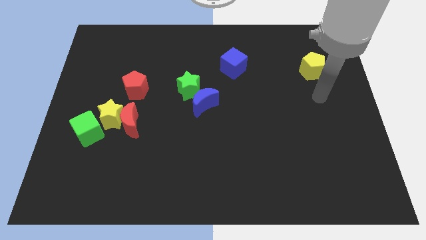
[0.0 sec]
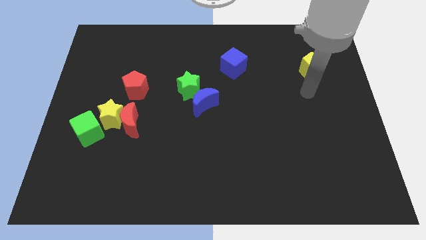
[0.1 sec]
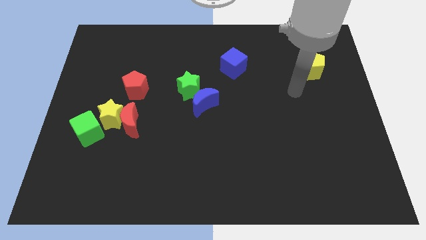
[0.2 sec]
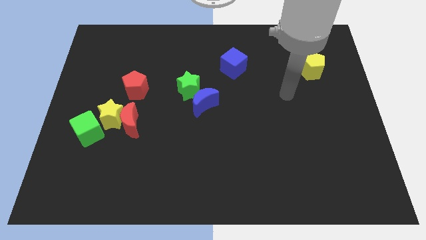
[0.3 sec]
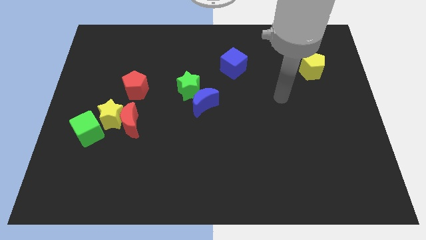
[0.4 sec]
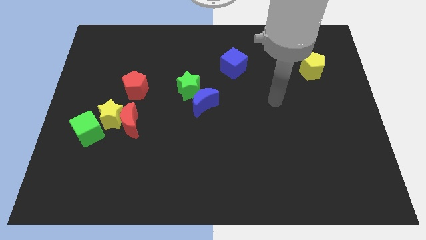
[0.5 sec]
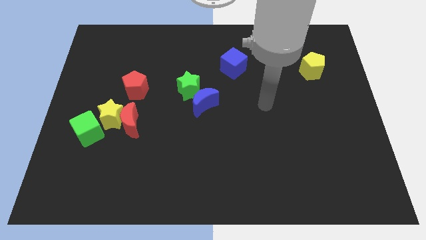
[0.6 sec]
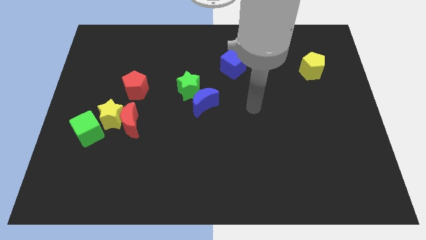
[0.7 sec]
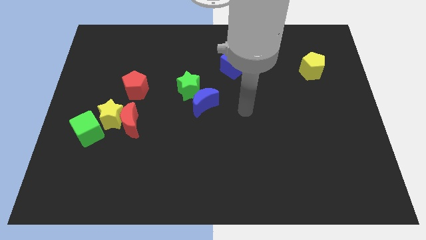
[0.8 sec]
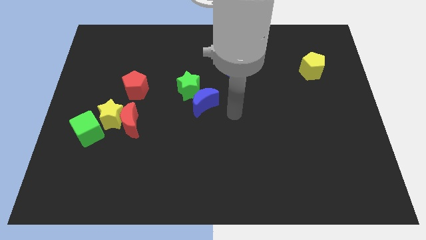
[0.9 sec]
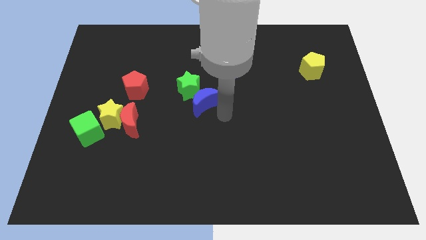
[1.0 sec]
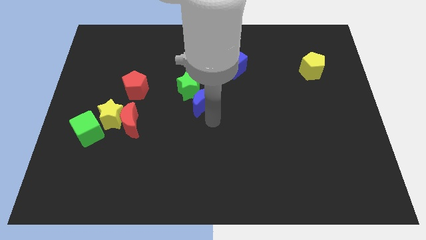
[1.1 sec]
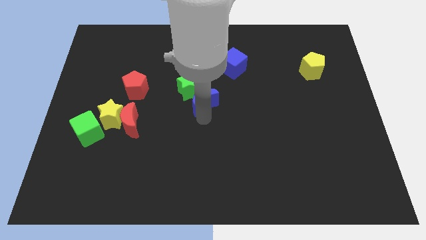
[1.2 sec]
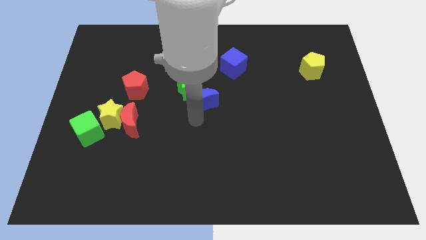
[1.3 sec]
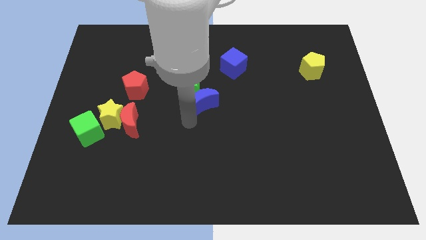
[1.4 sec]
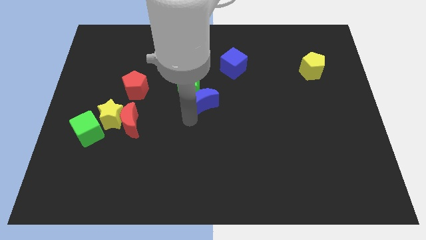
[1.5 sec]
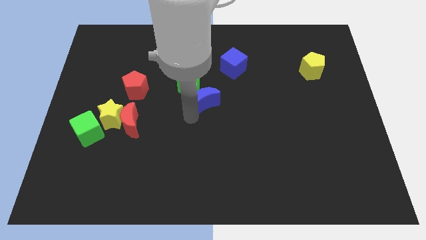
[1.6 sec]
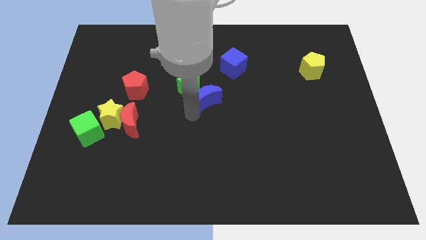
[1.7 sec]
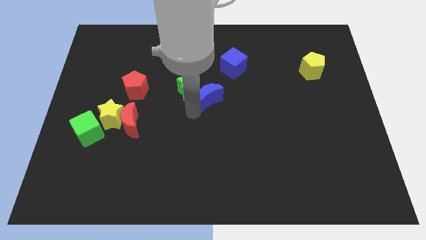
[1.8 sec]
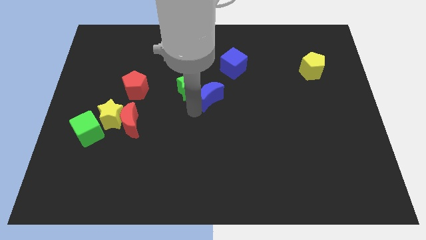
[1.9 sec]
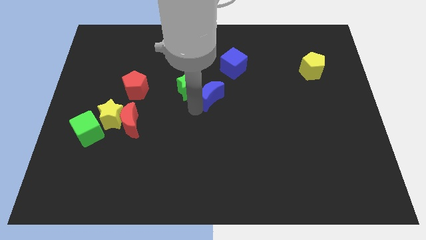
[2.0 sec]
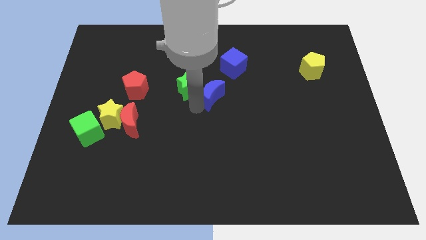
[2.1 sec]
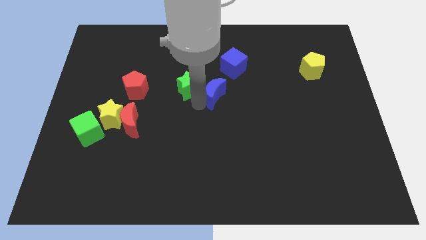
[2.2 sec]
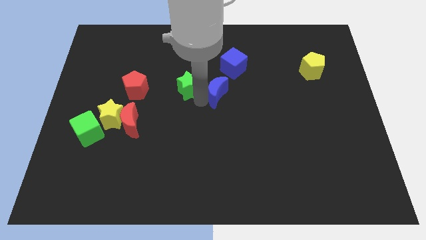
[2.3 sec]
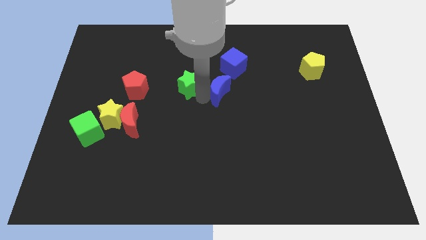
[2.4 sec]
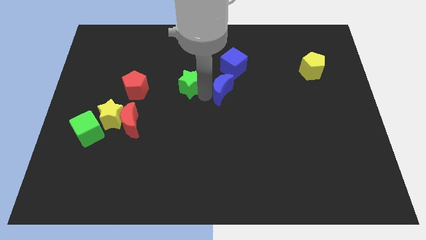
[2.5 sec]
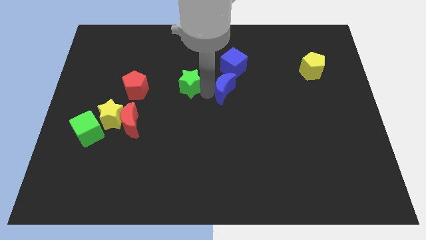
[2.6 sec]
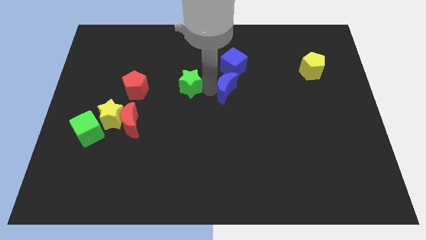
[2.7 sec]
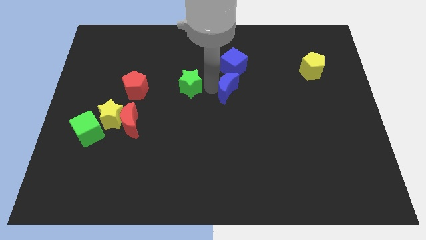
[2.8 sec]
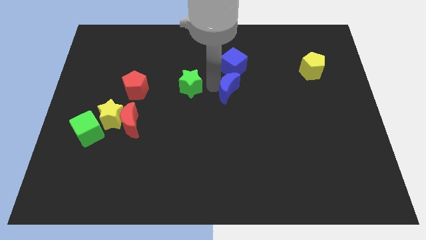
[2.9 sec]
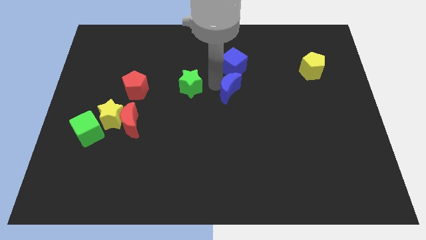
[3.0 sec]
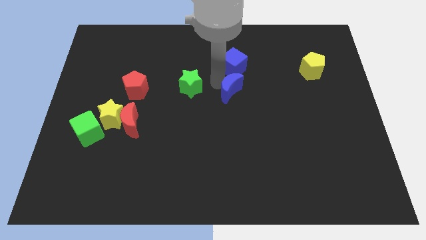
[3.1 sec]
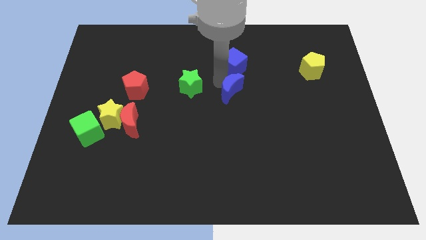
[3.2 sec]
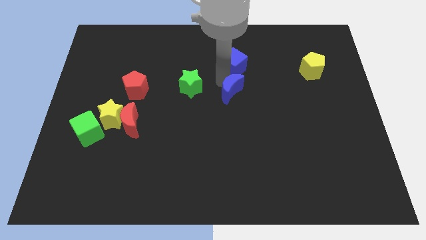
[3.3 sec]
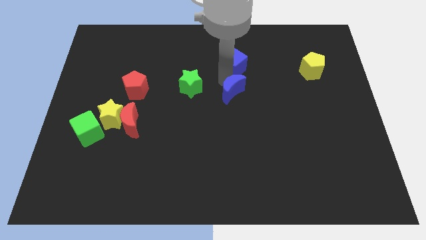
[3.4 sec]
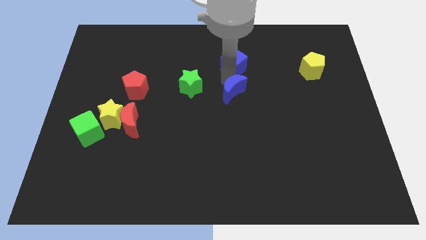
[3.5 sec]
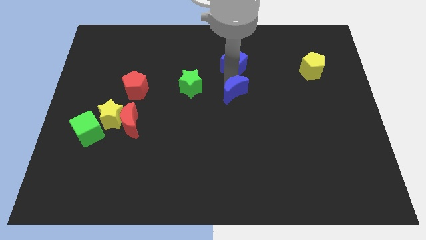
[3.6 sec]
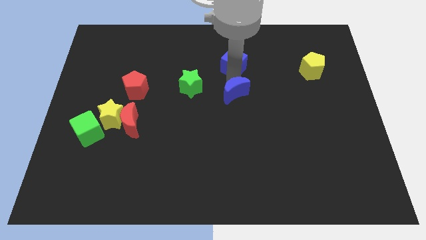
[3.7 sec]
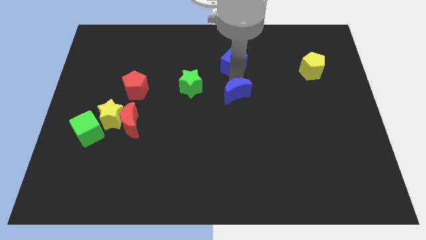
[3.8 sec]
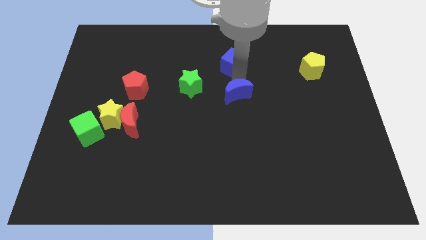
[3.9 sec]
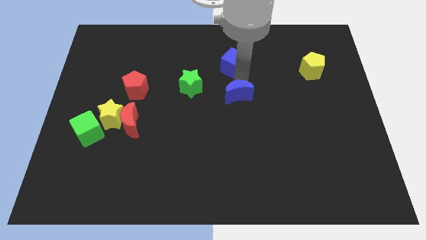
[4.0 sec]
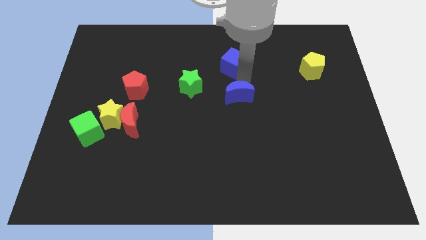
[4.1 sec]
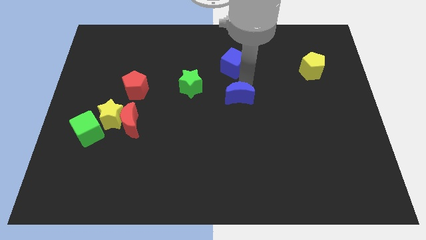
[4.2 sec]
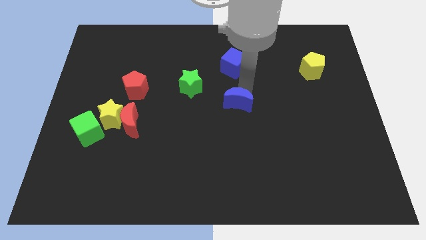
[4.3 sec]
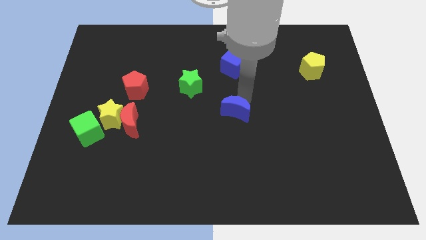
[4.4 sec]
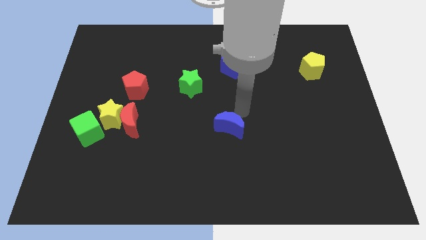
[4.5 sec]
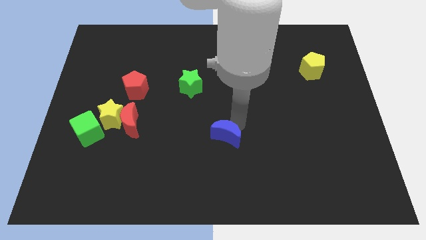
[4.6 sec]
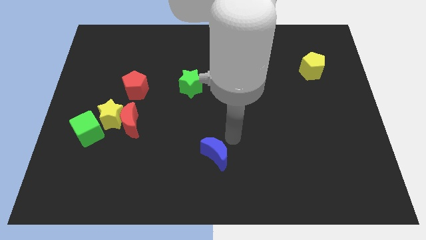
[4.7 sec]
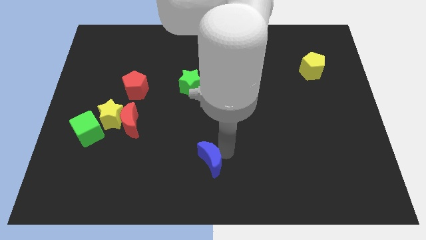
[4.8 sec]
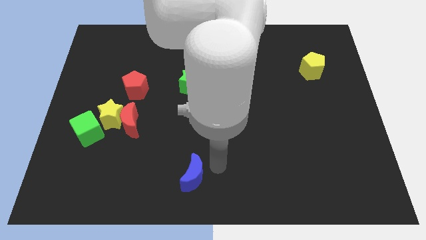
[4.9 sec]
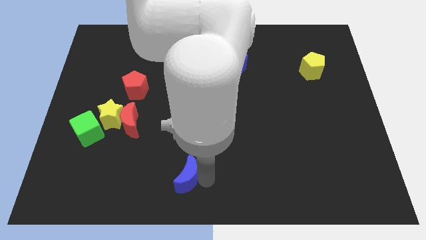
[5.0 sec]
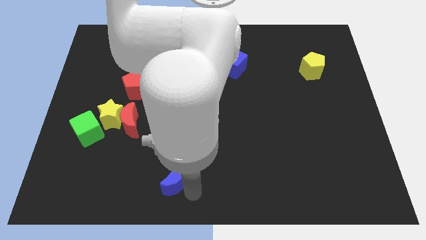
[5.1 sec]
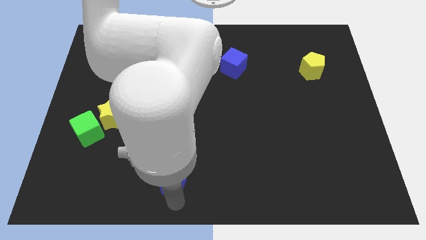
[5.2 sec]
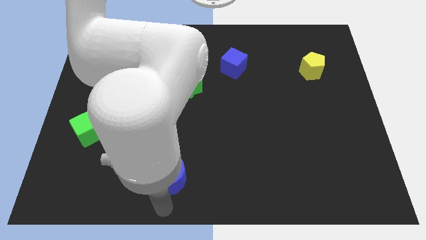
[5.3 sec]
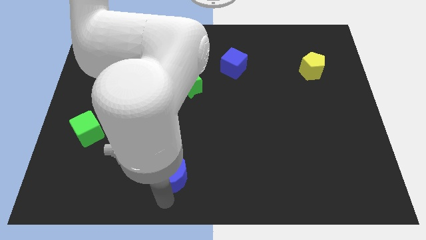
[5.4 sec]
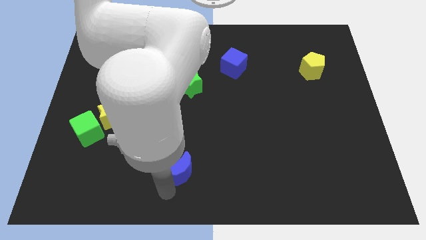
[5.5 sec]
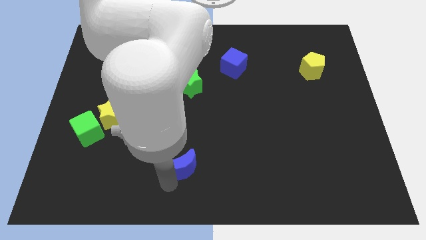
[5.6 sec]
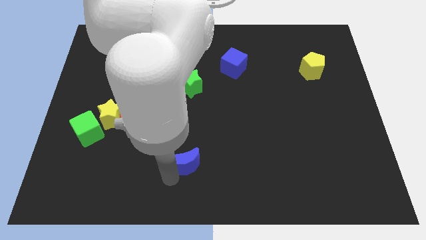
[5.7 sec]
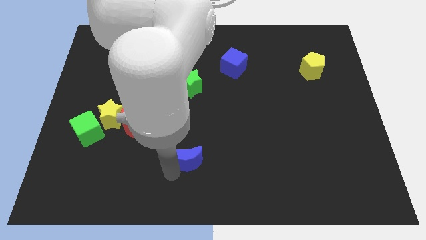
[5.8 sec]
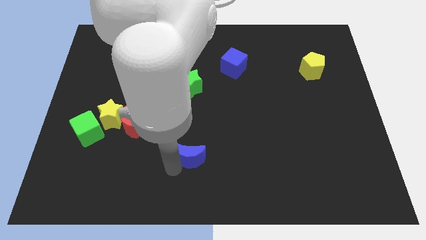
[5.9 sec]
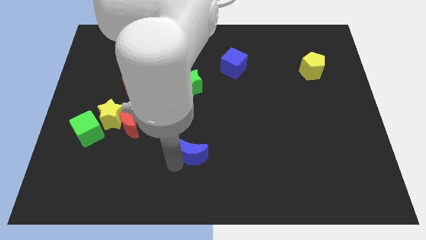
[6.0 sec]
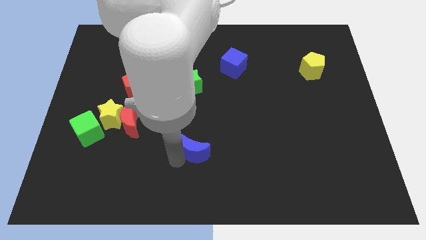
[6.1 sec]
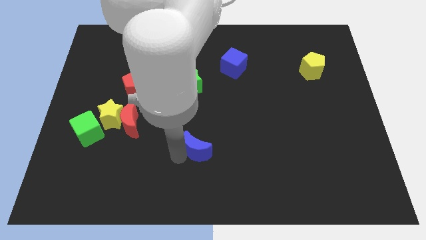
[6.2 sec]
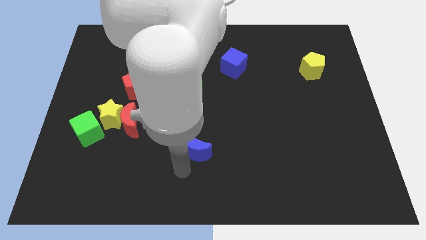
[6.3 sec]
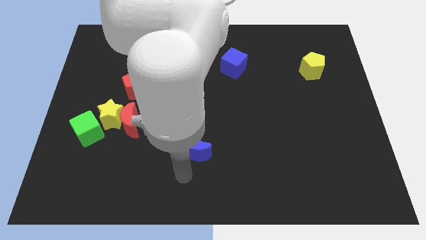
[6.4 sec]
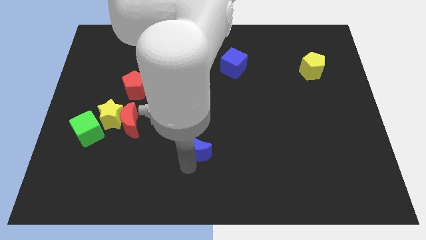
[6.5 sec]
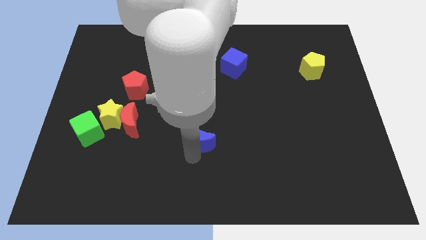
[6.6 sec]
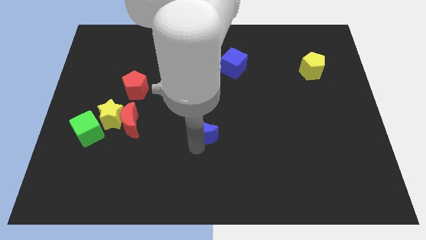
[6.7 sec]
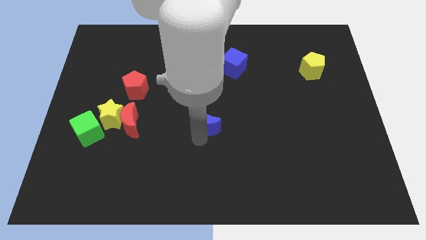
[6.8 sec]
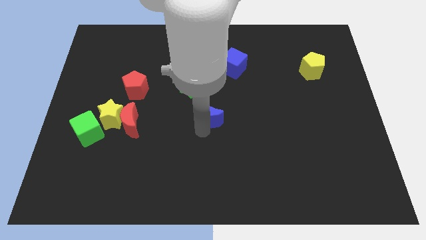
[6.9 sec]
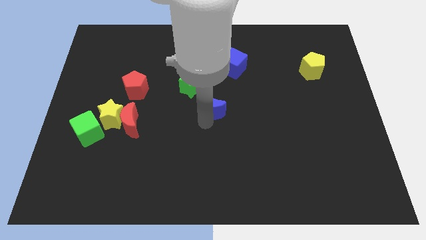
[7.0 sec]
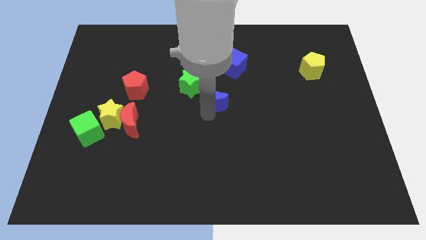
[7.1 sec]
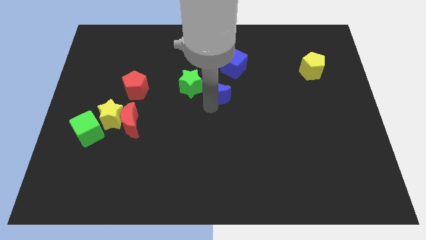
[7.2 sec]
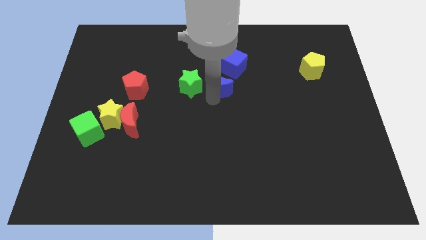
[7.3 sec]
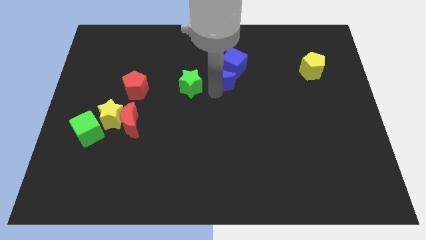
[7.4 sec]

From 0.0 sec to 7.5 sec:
put the blue moon towards the blue cube

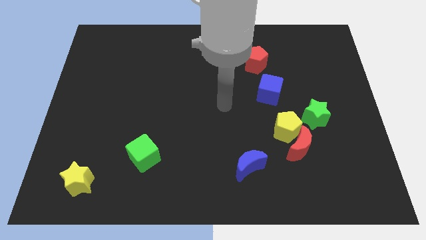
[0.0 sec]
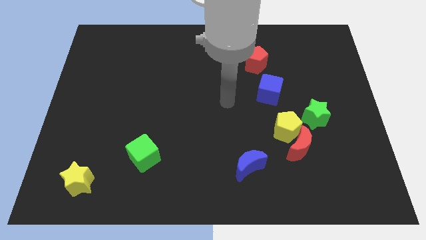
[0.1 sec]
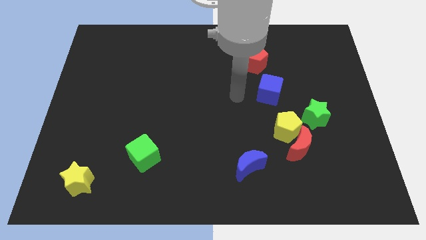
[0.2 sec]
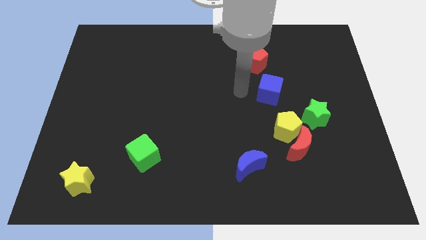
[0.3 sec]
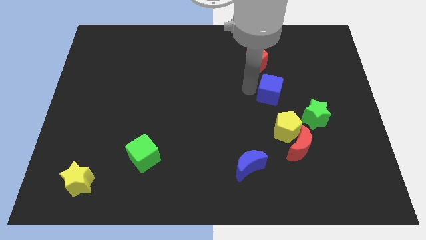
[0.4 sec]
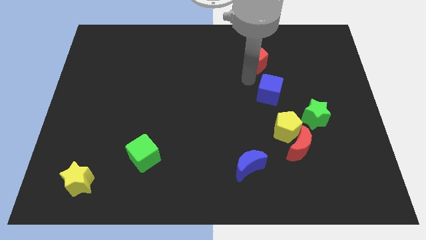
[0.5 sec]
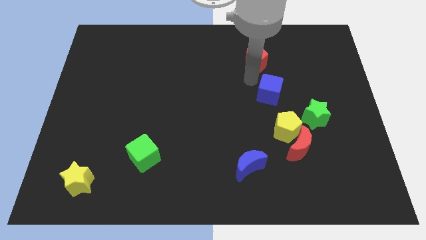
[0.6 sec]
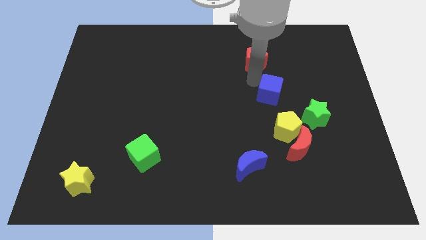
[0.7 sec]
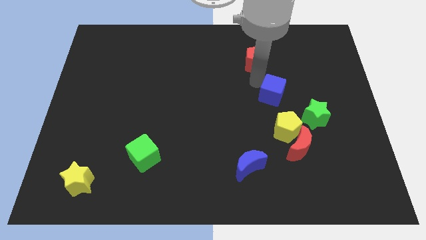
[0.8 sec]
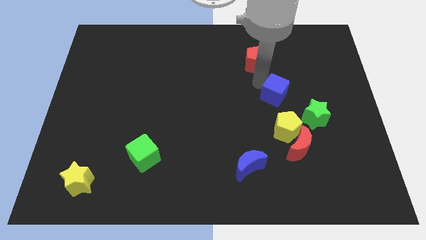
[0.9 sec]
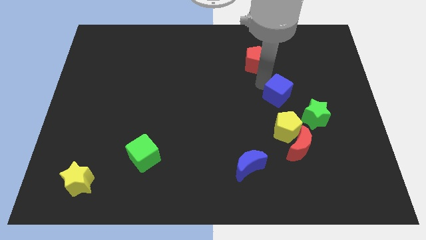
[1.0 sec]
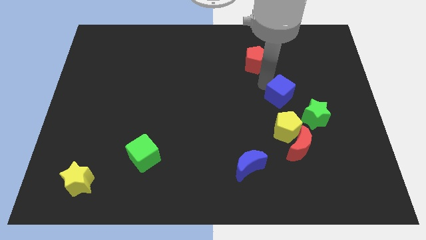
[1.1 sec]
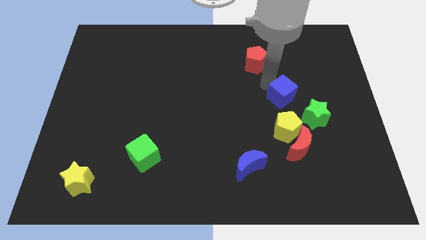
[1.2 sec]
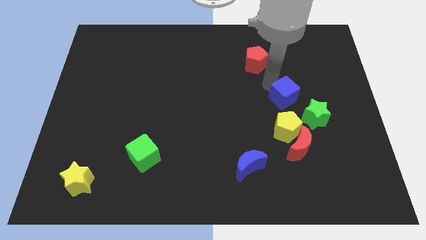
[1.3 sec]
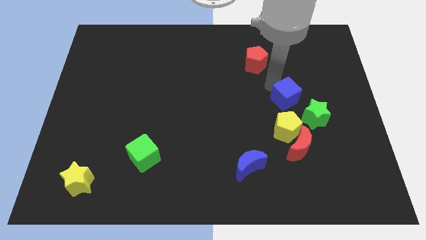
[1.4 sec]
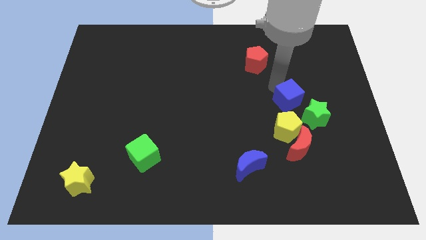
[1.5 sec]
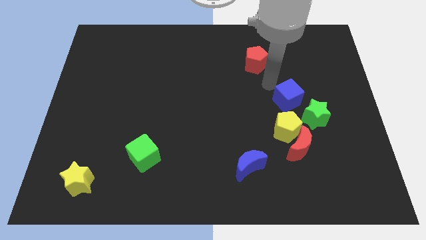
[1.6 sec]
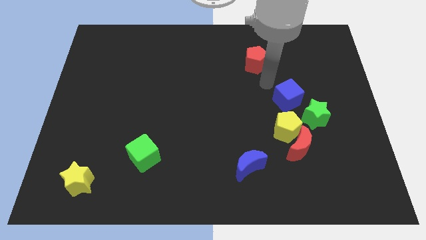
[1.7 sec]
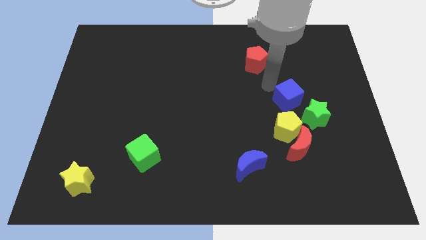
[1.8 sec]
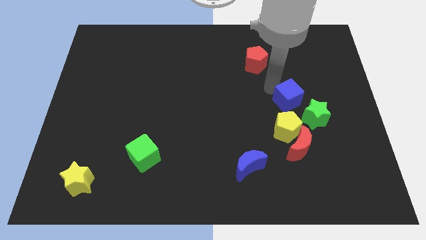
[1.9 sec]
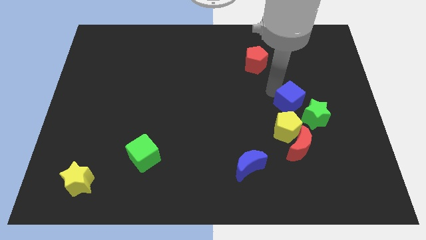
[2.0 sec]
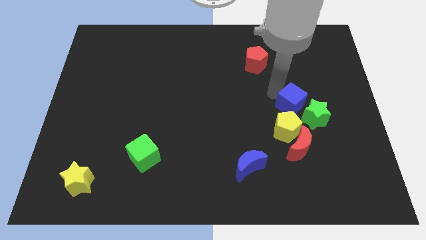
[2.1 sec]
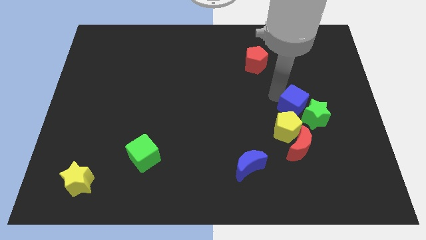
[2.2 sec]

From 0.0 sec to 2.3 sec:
push the blue cube close to the green star
